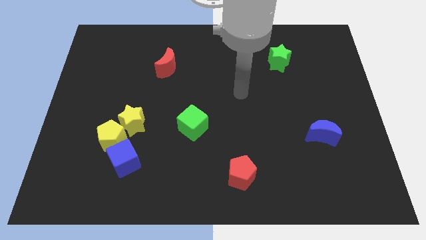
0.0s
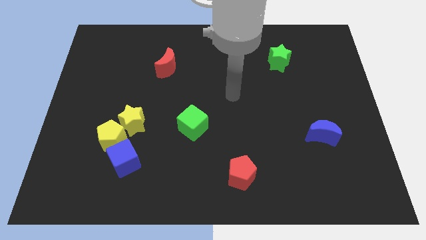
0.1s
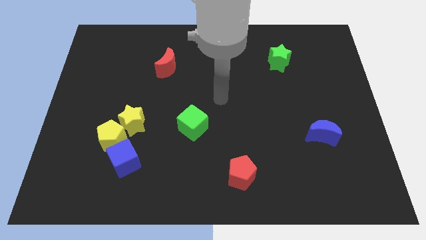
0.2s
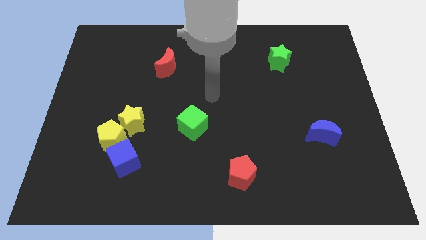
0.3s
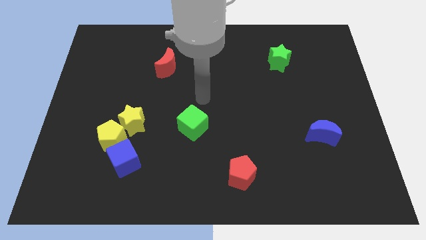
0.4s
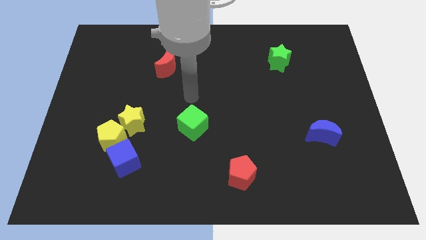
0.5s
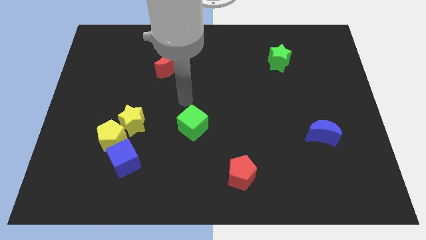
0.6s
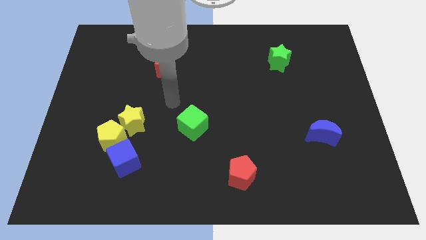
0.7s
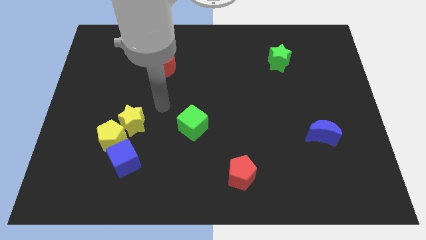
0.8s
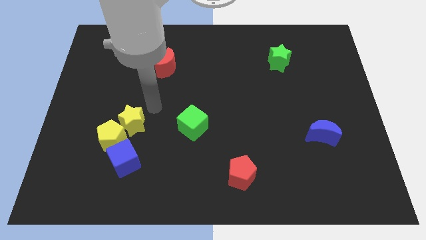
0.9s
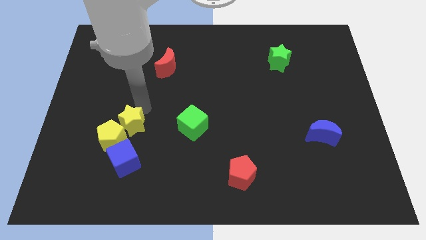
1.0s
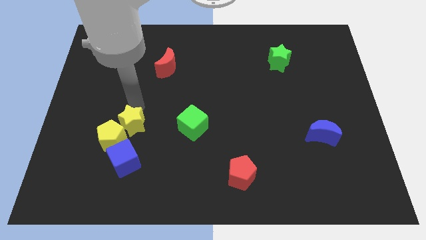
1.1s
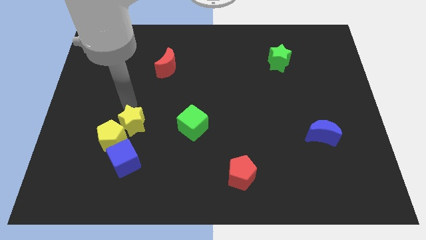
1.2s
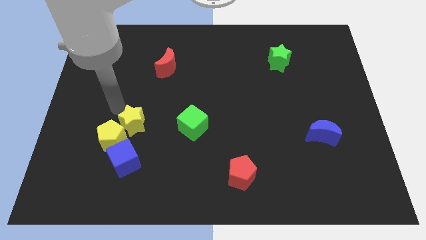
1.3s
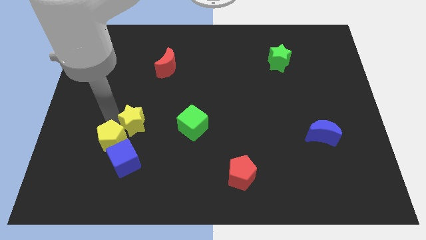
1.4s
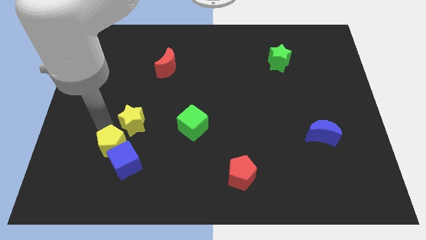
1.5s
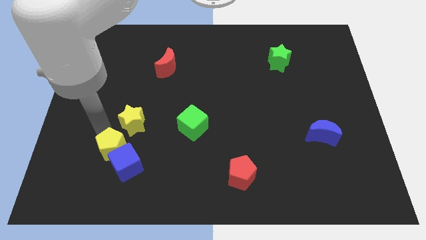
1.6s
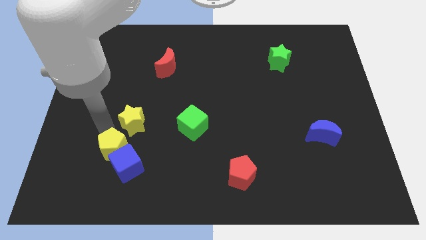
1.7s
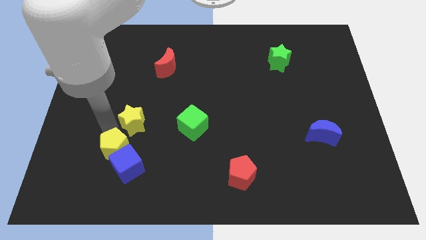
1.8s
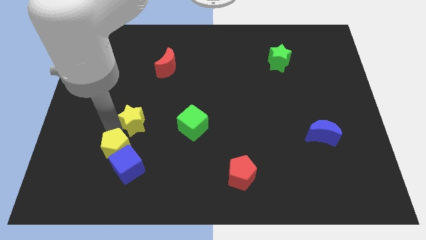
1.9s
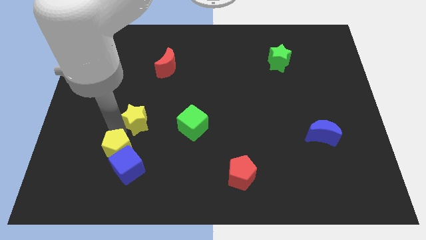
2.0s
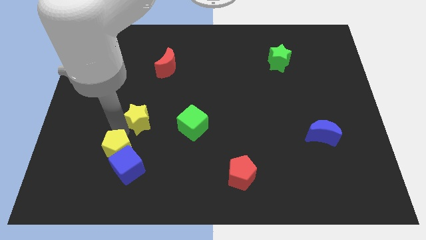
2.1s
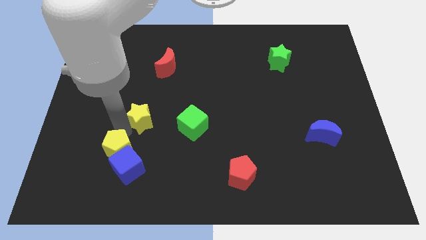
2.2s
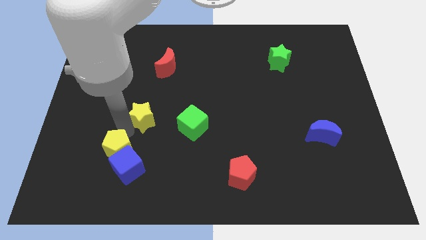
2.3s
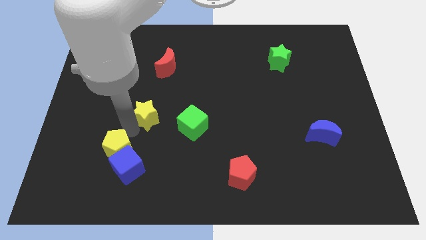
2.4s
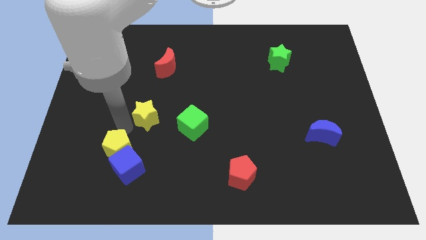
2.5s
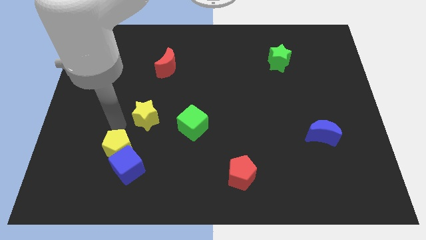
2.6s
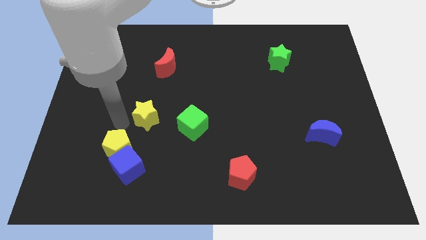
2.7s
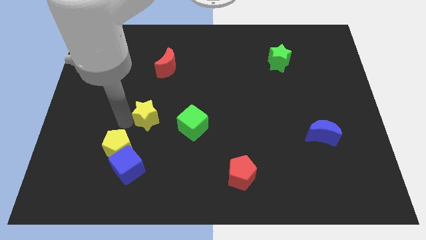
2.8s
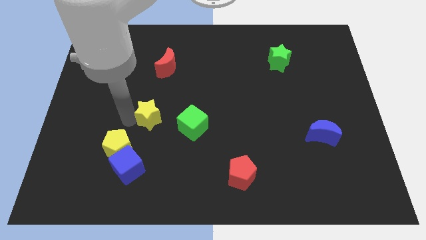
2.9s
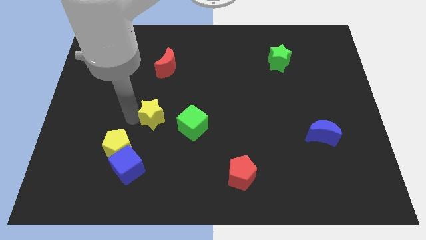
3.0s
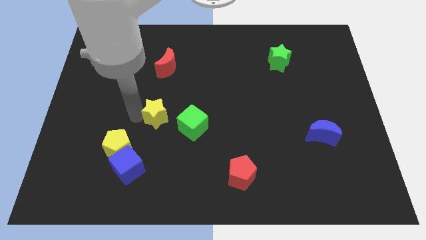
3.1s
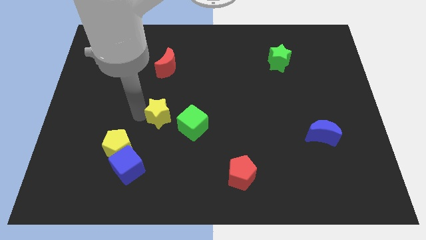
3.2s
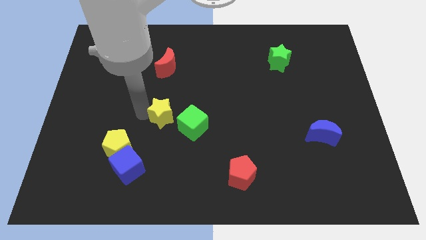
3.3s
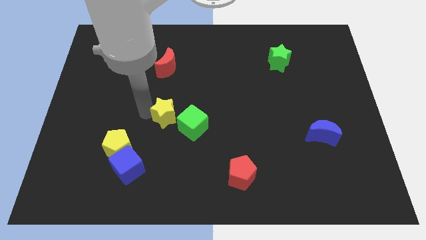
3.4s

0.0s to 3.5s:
slide the yellow star a little to the right

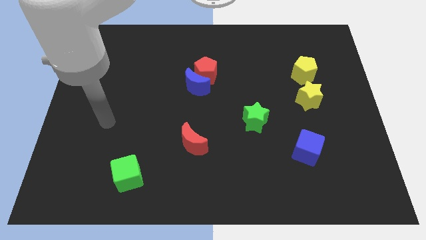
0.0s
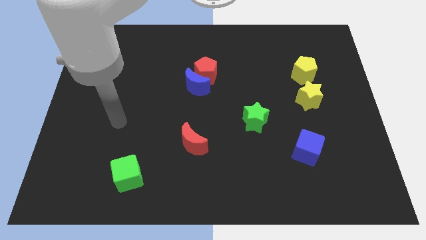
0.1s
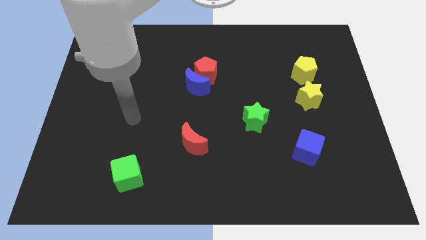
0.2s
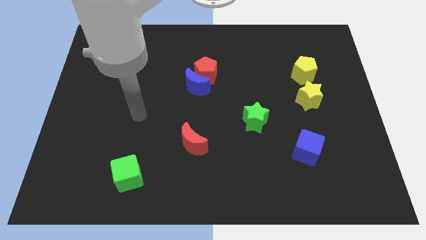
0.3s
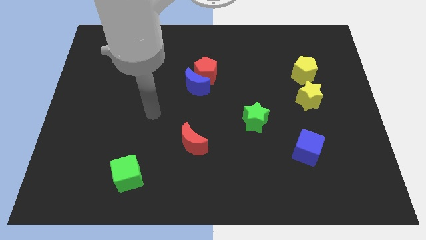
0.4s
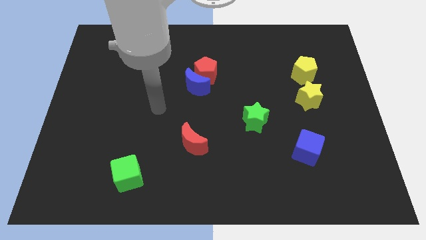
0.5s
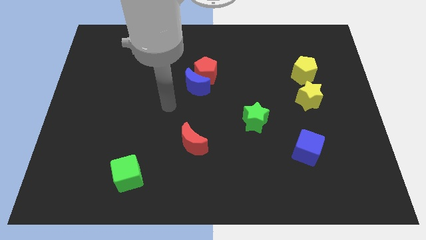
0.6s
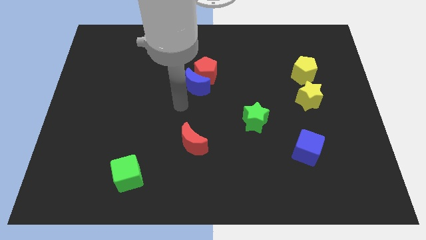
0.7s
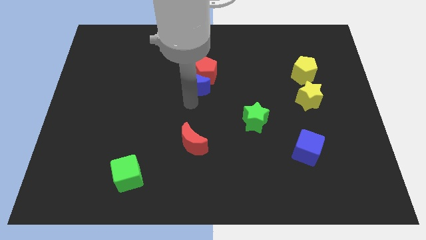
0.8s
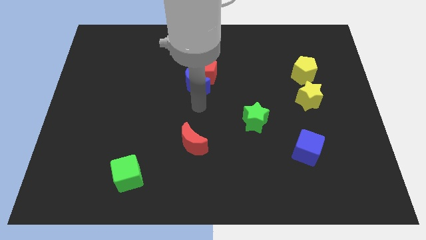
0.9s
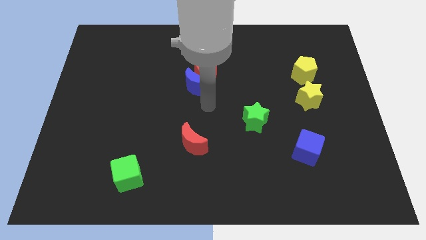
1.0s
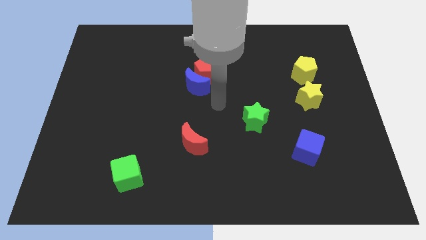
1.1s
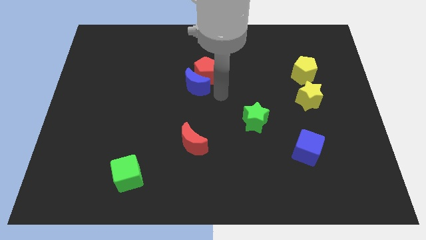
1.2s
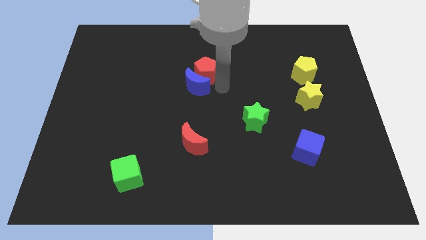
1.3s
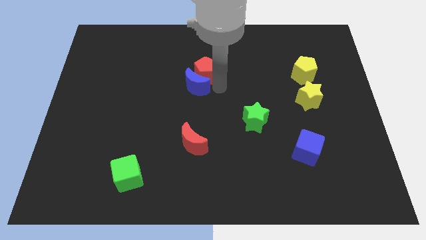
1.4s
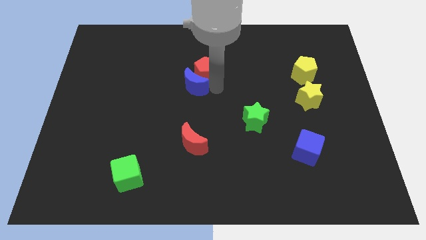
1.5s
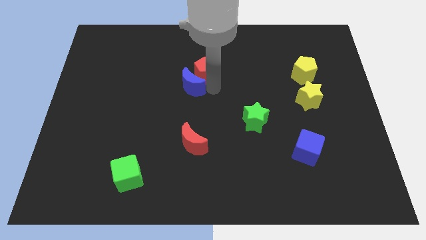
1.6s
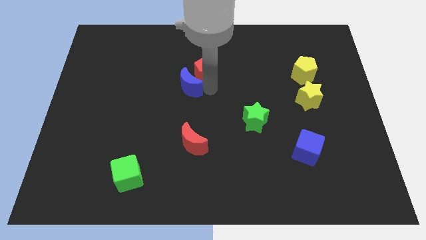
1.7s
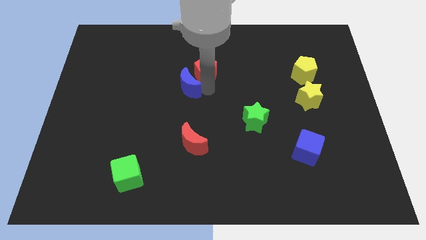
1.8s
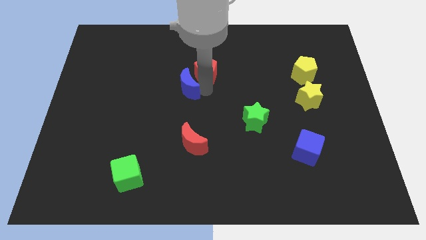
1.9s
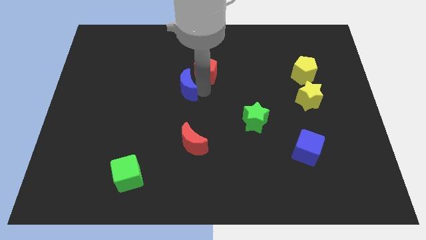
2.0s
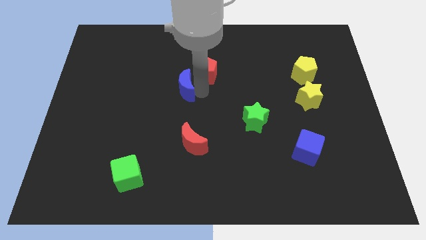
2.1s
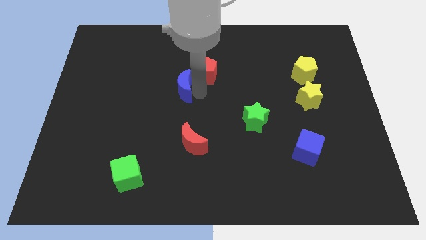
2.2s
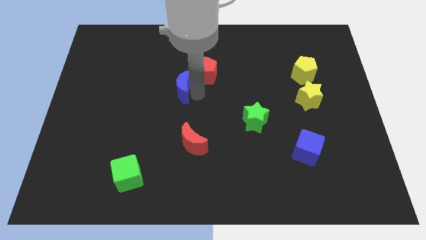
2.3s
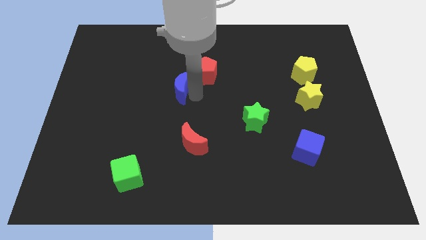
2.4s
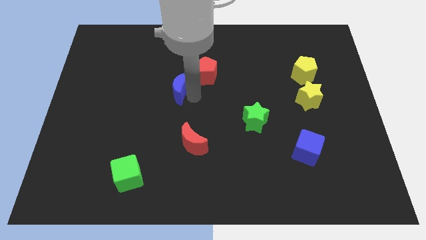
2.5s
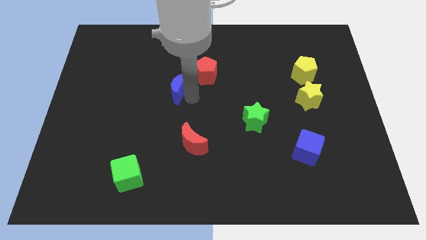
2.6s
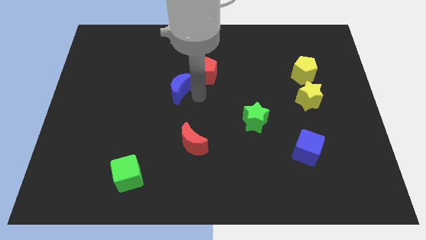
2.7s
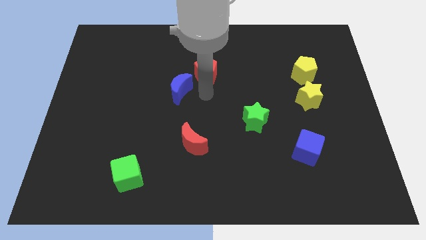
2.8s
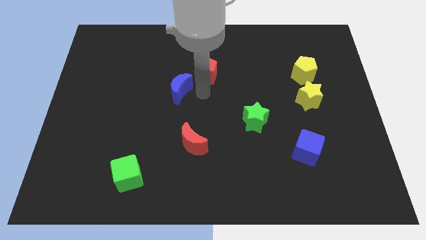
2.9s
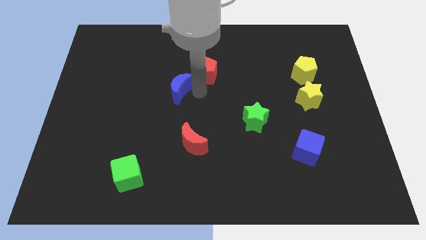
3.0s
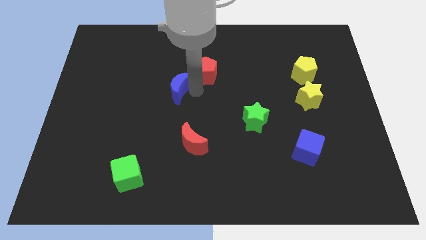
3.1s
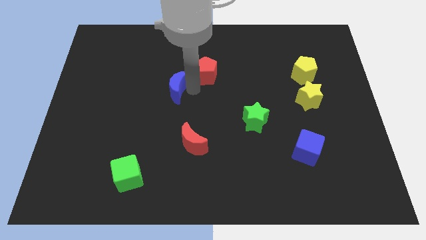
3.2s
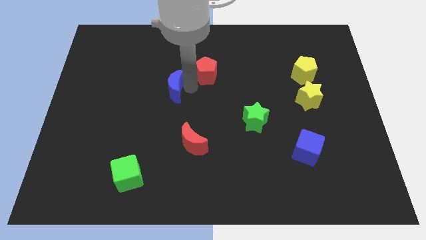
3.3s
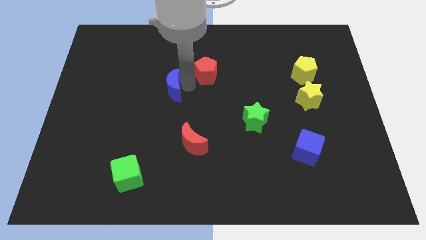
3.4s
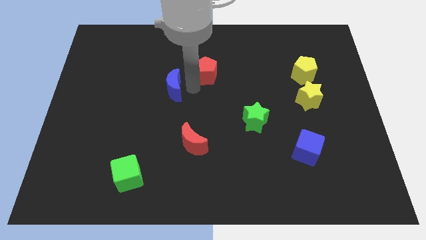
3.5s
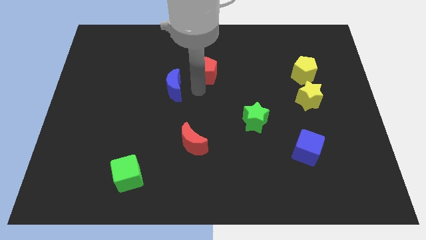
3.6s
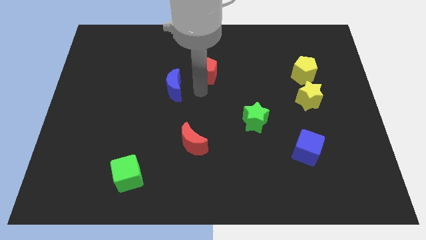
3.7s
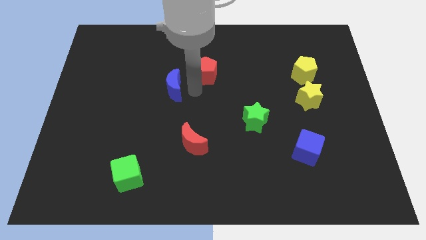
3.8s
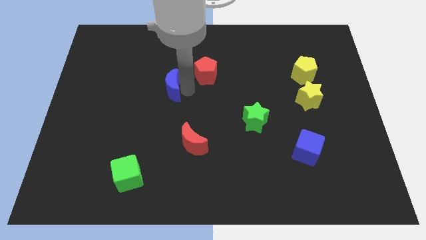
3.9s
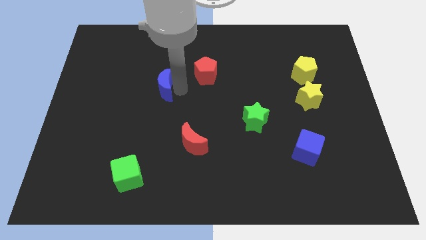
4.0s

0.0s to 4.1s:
slightly push the blue moon to the left

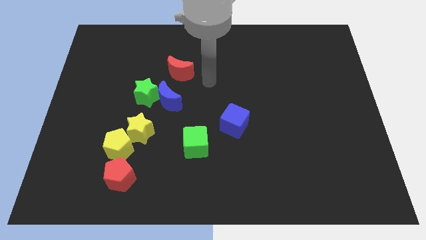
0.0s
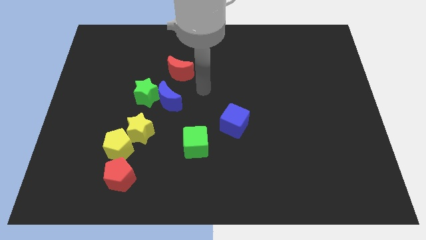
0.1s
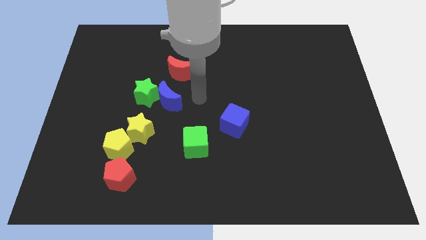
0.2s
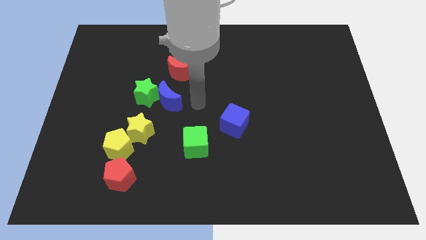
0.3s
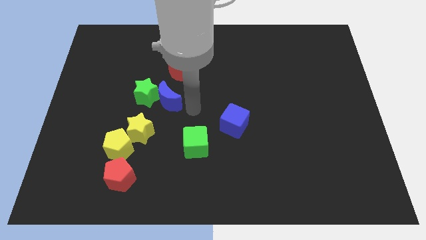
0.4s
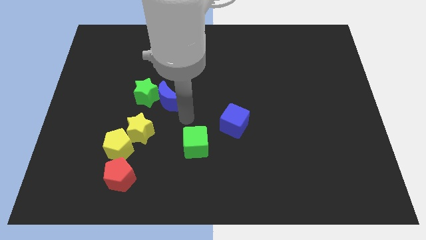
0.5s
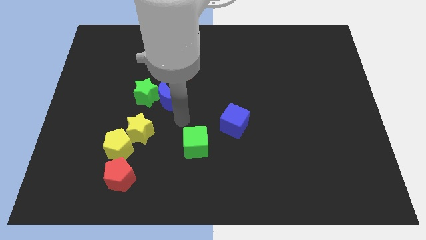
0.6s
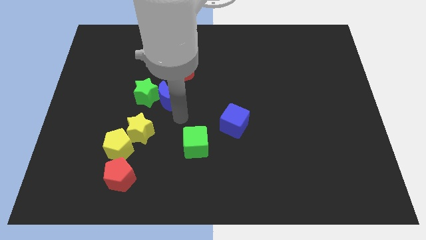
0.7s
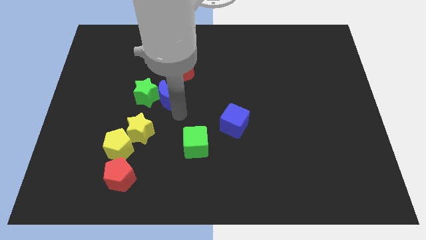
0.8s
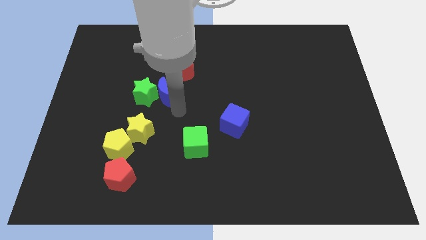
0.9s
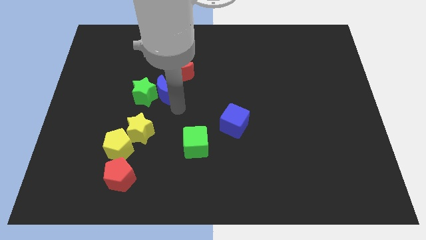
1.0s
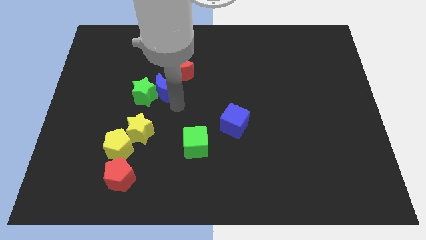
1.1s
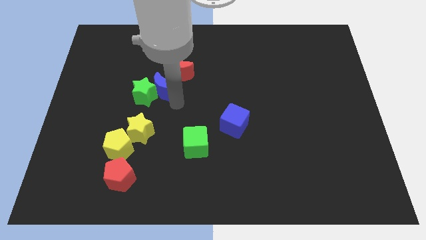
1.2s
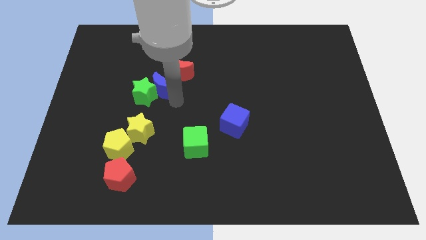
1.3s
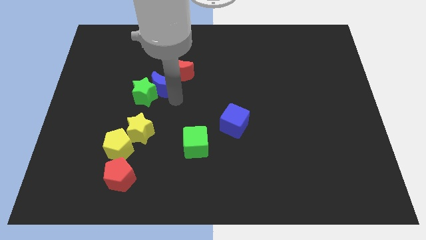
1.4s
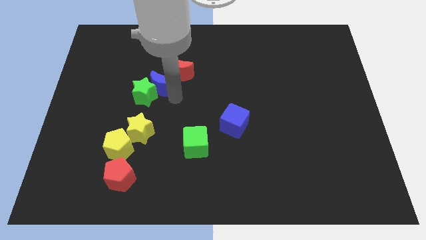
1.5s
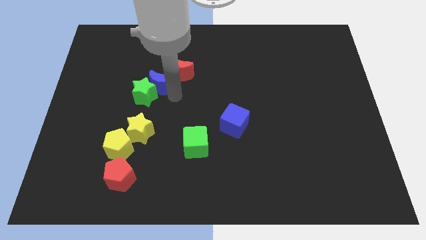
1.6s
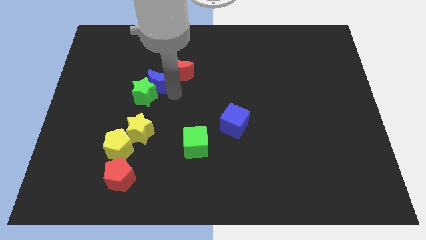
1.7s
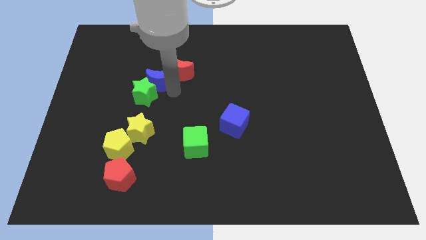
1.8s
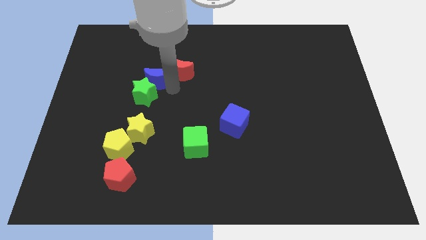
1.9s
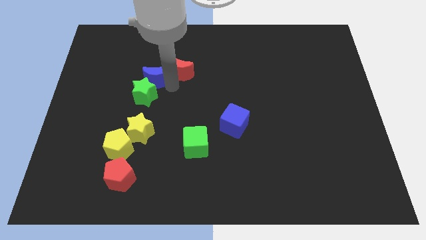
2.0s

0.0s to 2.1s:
slide the blue moon a bit up and to the left
